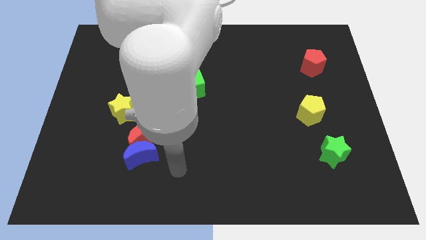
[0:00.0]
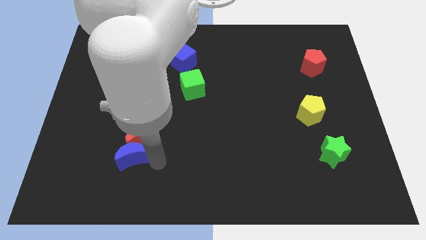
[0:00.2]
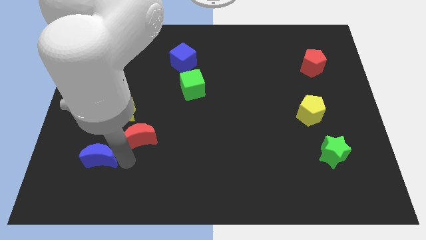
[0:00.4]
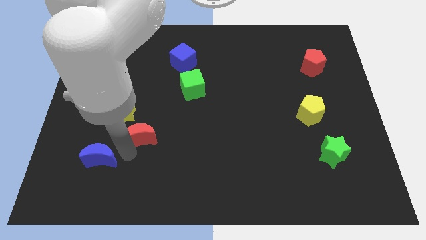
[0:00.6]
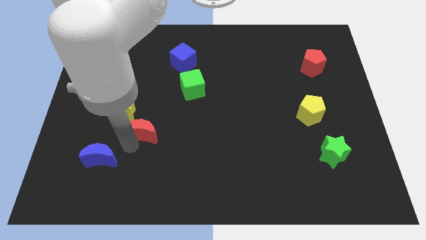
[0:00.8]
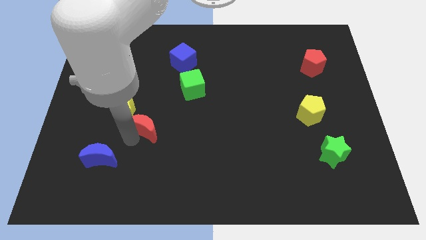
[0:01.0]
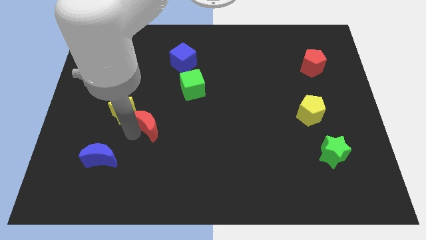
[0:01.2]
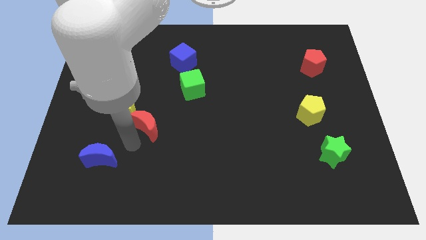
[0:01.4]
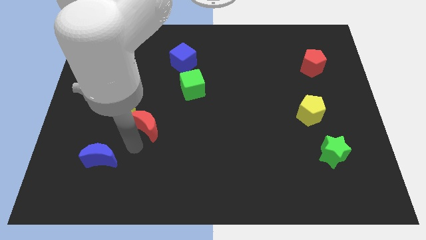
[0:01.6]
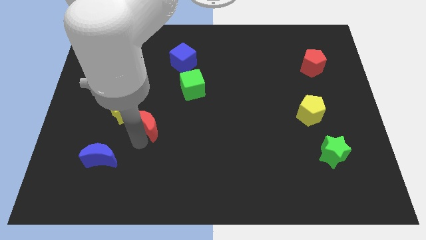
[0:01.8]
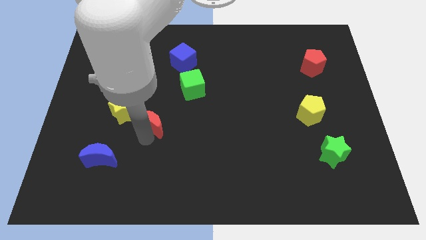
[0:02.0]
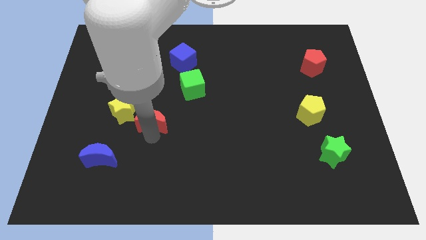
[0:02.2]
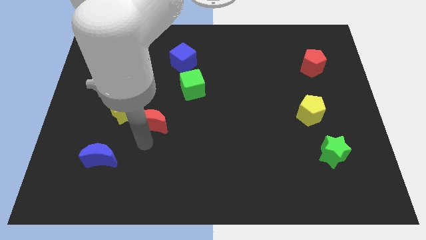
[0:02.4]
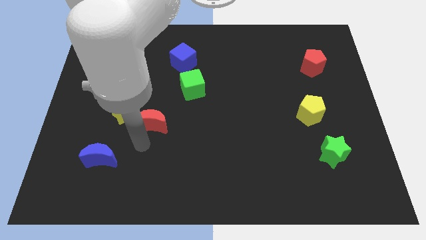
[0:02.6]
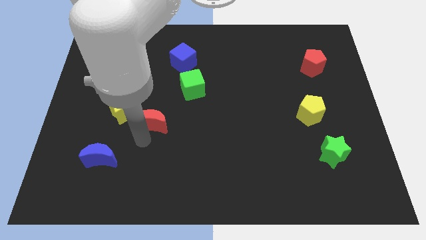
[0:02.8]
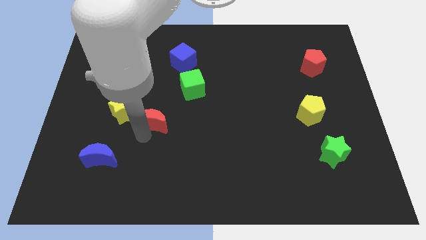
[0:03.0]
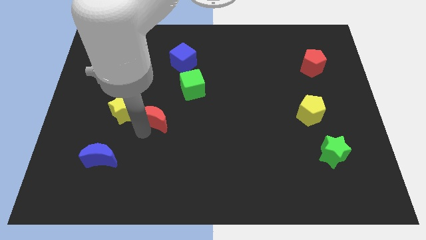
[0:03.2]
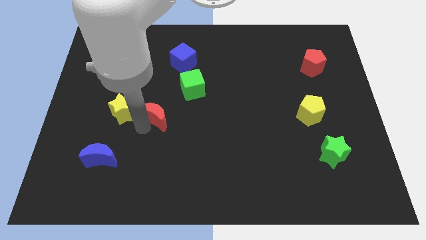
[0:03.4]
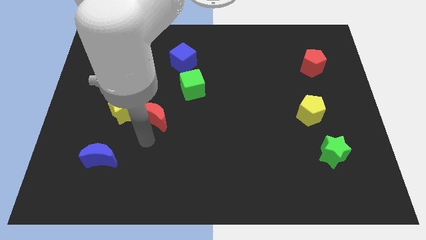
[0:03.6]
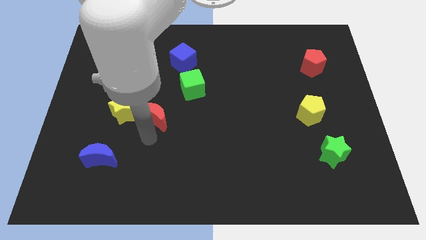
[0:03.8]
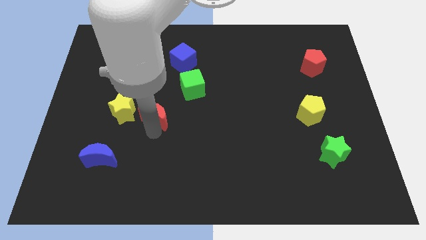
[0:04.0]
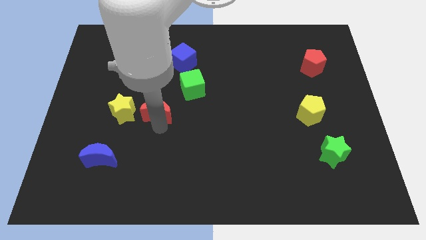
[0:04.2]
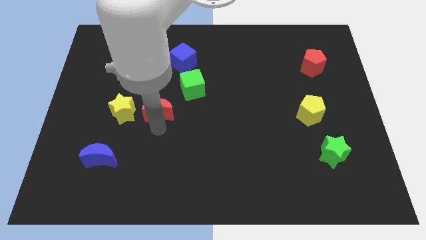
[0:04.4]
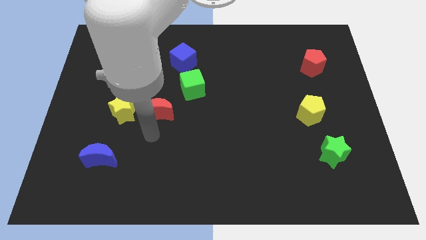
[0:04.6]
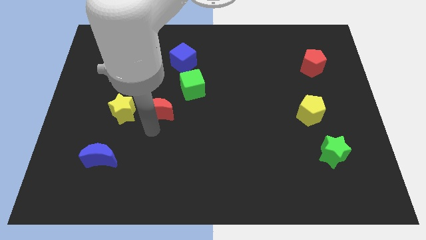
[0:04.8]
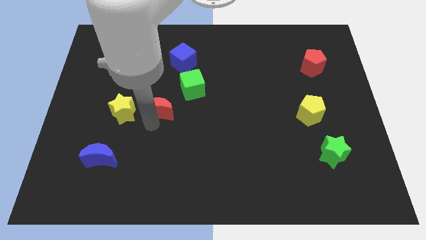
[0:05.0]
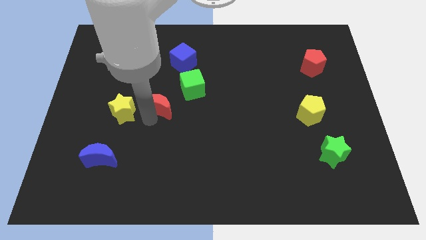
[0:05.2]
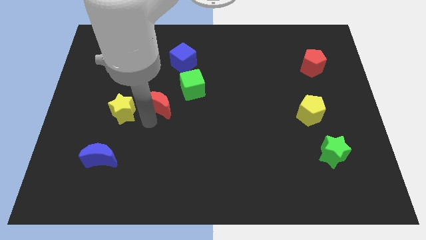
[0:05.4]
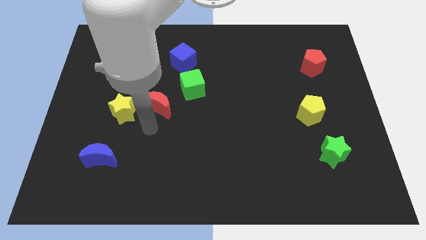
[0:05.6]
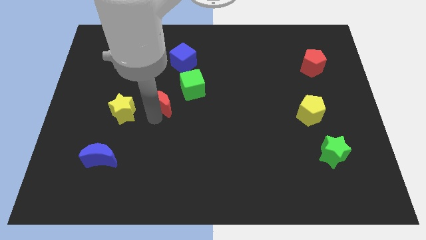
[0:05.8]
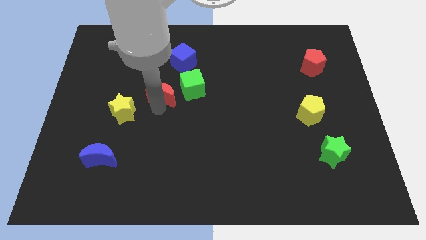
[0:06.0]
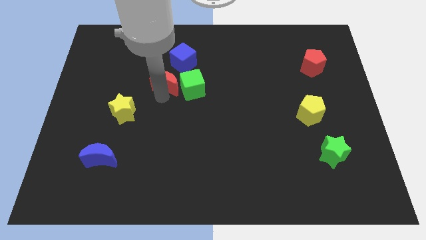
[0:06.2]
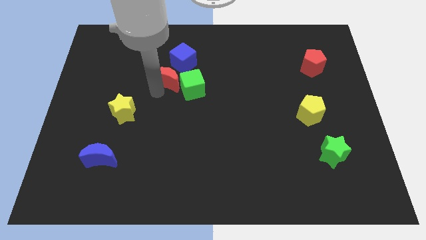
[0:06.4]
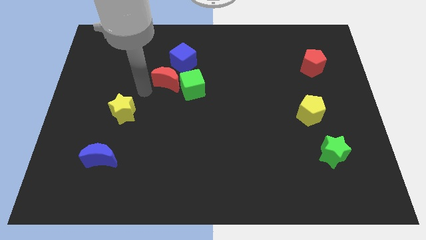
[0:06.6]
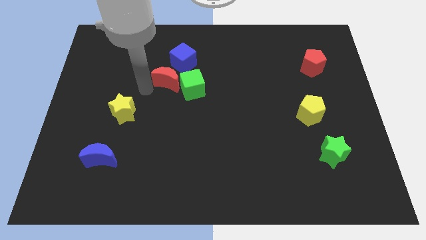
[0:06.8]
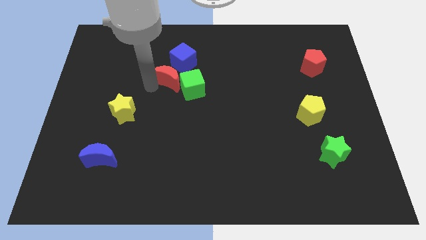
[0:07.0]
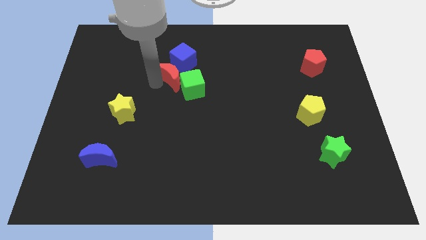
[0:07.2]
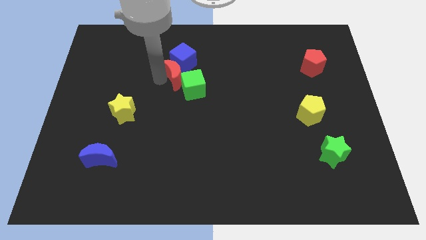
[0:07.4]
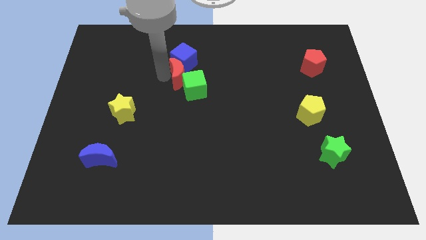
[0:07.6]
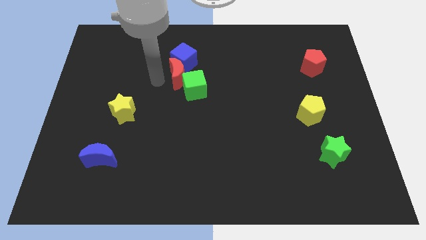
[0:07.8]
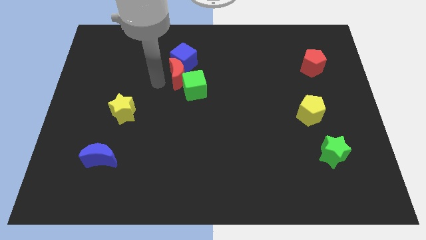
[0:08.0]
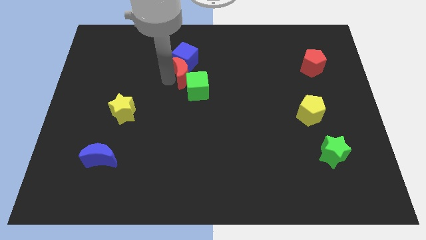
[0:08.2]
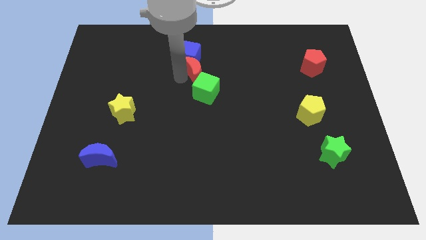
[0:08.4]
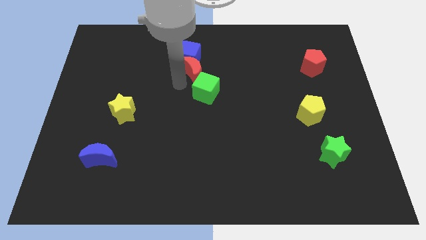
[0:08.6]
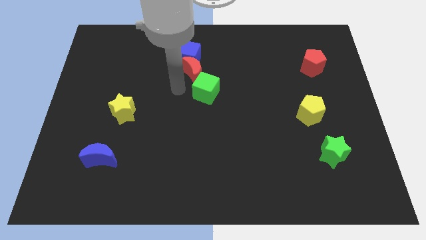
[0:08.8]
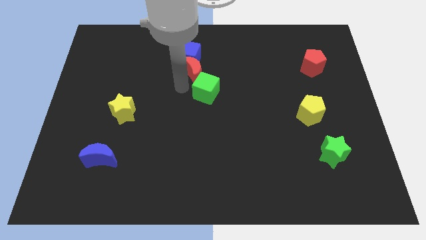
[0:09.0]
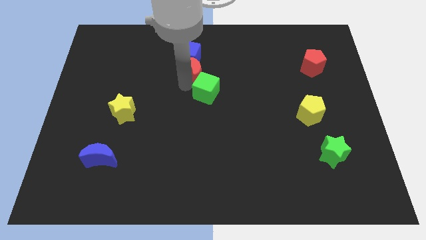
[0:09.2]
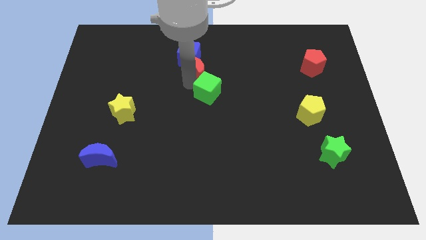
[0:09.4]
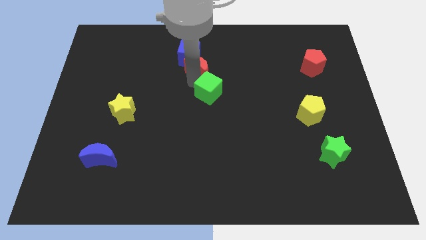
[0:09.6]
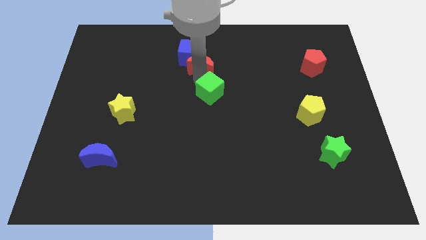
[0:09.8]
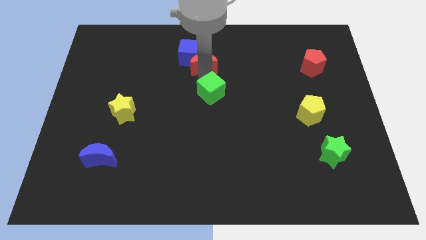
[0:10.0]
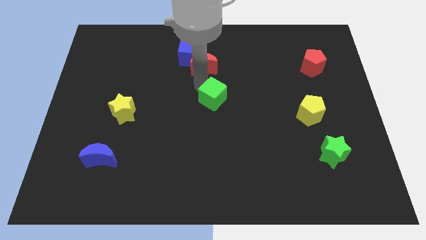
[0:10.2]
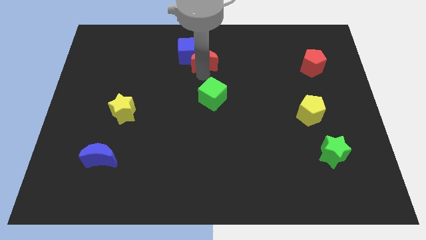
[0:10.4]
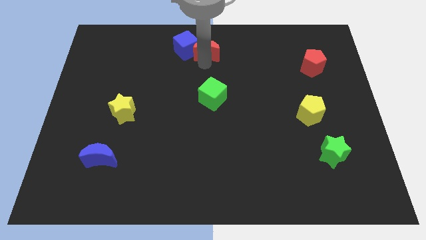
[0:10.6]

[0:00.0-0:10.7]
put the red moon to the top side

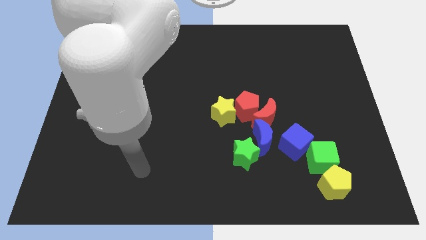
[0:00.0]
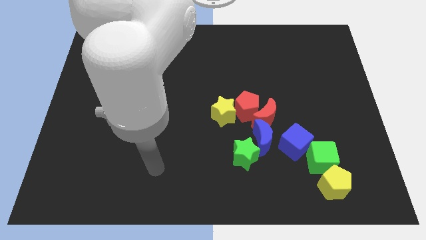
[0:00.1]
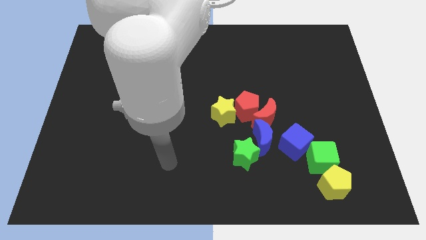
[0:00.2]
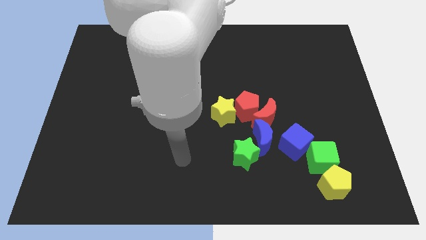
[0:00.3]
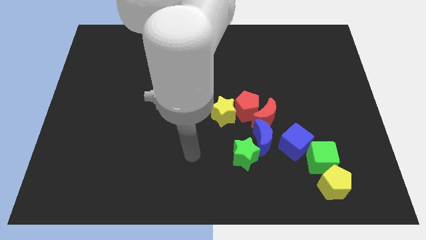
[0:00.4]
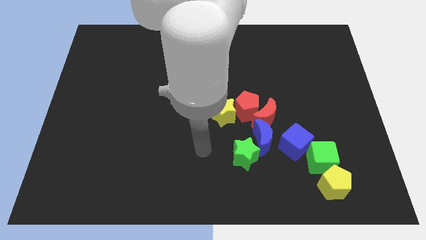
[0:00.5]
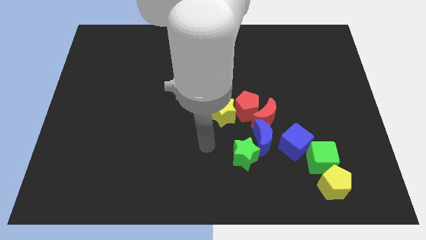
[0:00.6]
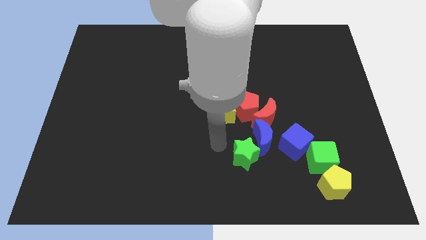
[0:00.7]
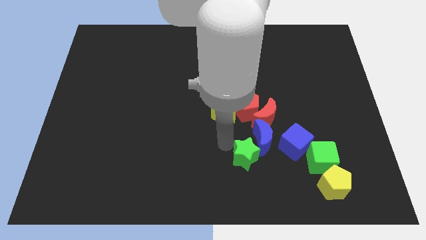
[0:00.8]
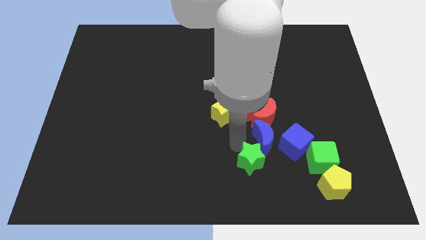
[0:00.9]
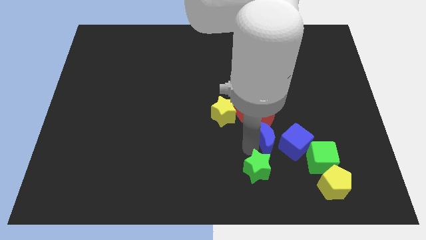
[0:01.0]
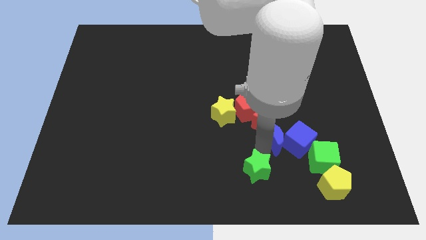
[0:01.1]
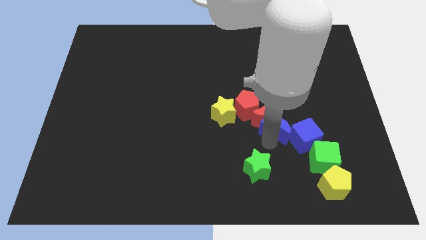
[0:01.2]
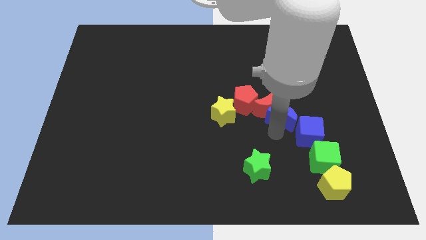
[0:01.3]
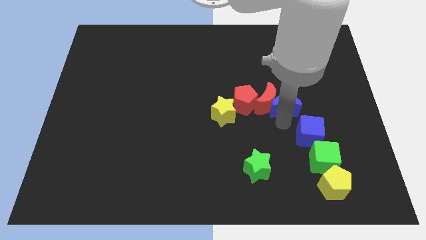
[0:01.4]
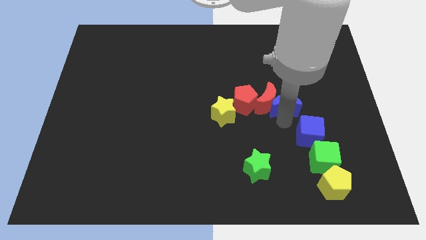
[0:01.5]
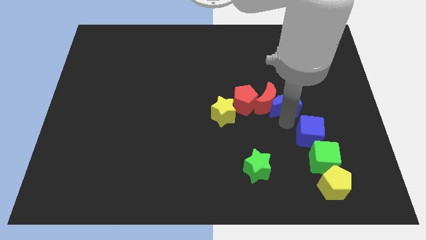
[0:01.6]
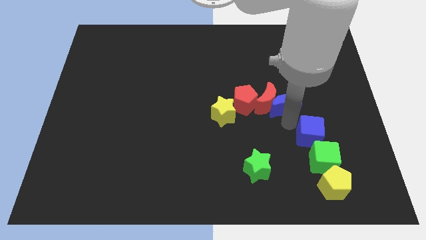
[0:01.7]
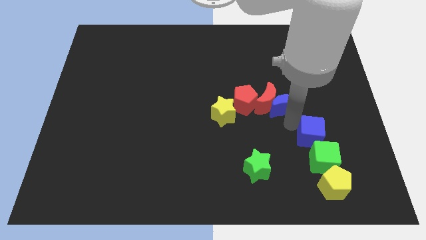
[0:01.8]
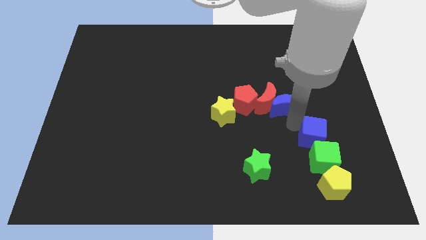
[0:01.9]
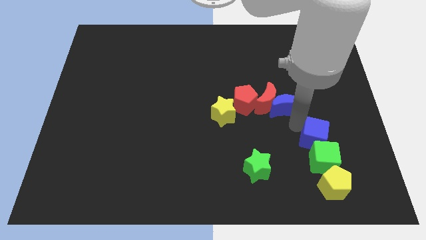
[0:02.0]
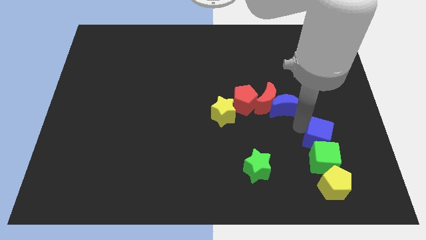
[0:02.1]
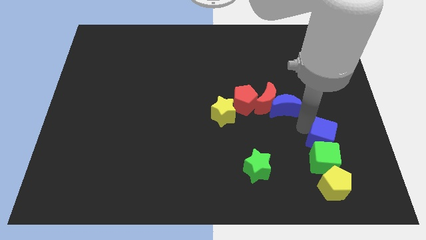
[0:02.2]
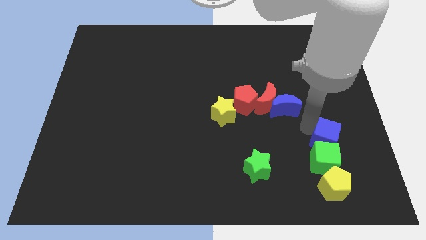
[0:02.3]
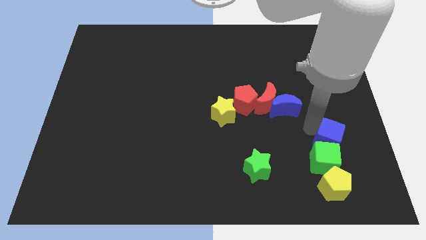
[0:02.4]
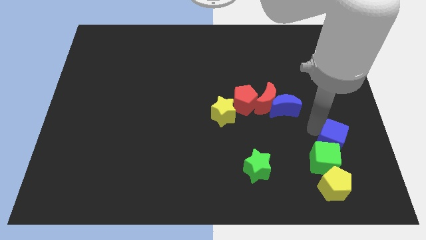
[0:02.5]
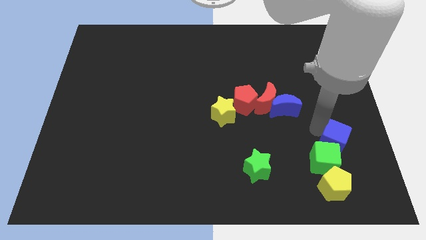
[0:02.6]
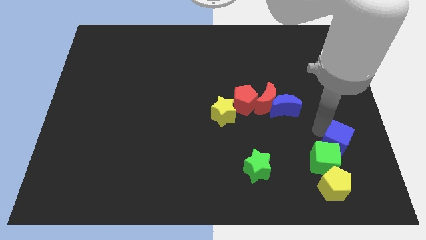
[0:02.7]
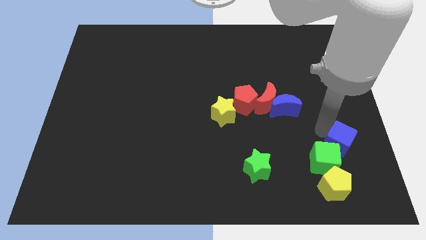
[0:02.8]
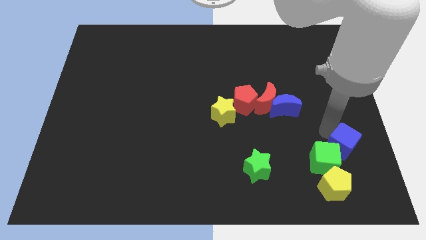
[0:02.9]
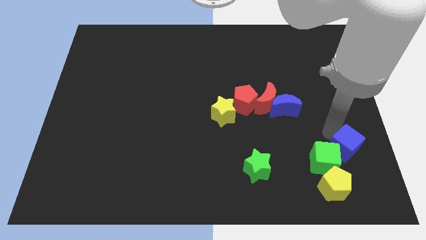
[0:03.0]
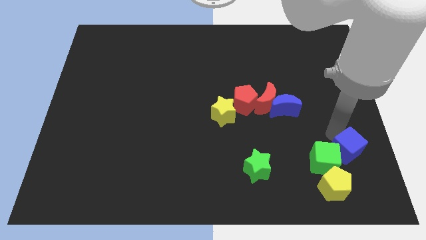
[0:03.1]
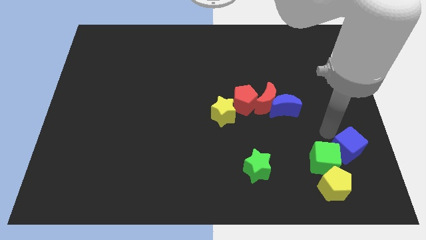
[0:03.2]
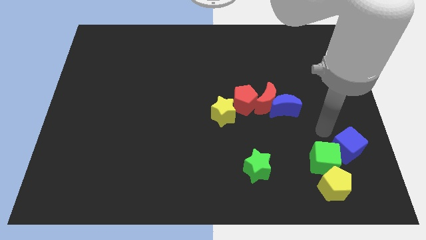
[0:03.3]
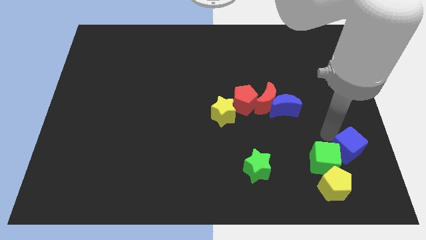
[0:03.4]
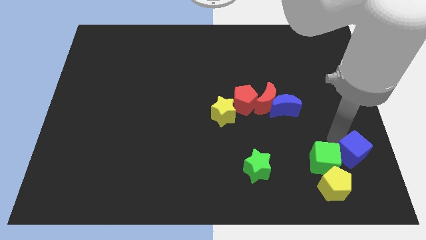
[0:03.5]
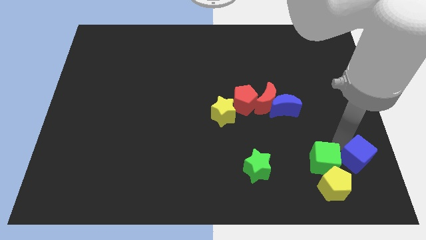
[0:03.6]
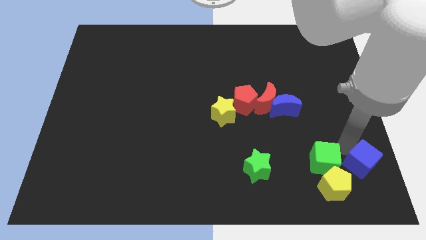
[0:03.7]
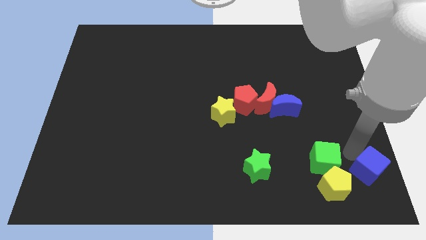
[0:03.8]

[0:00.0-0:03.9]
slide the blue cube to the lower right corner
